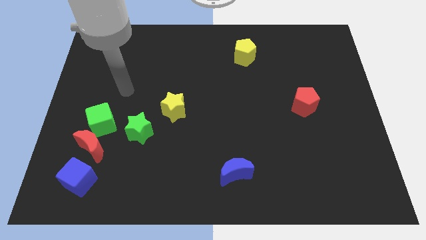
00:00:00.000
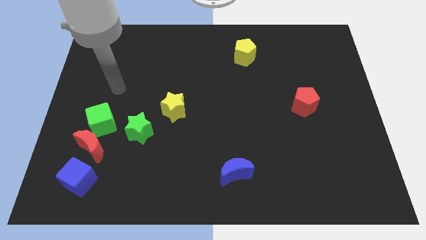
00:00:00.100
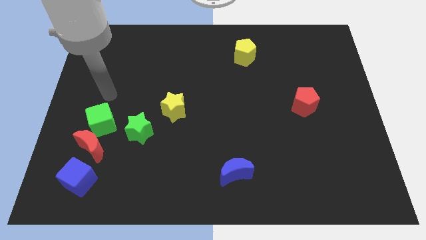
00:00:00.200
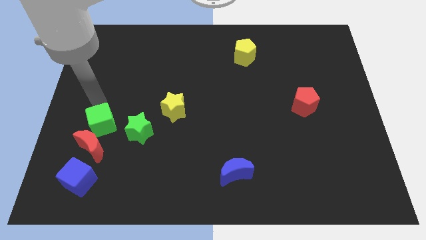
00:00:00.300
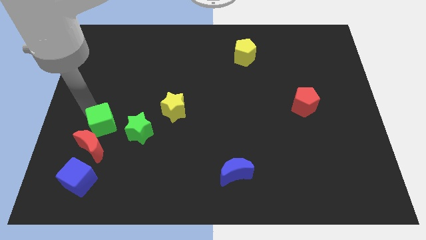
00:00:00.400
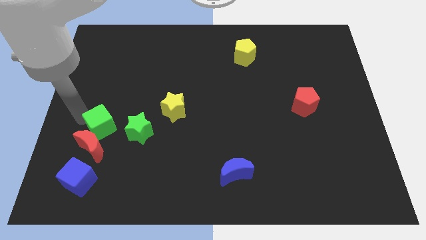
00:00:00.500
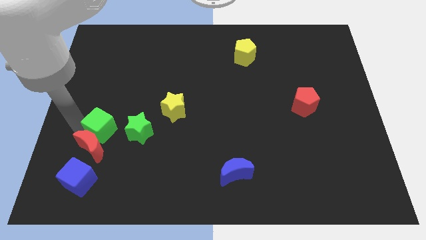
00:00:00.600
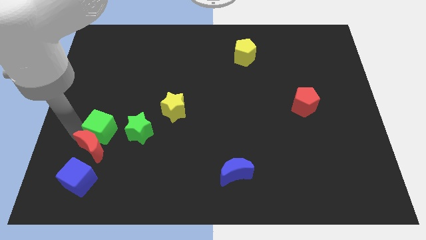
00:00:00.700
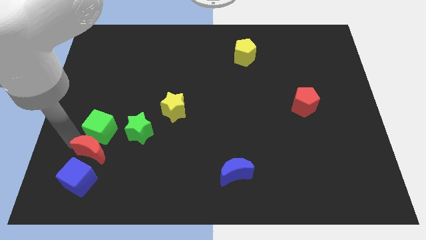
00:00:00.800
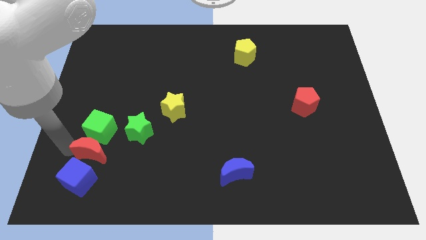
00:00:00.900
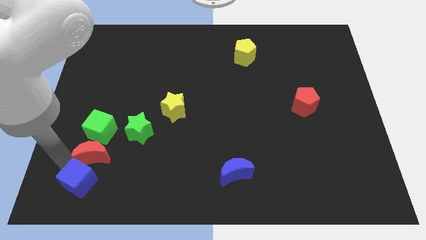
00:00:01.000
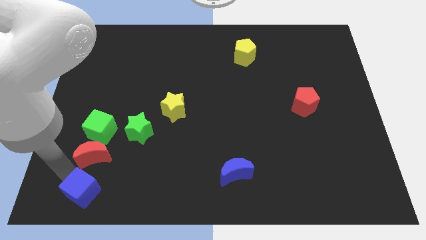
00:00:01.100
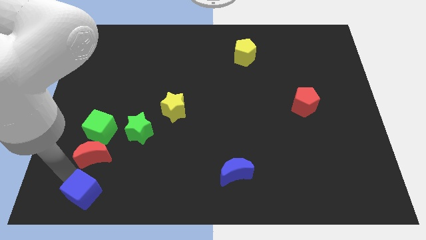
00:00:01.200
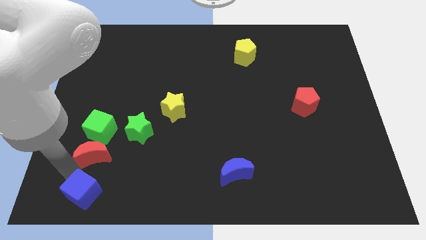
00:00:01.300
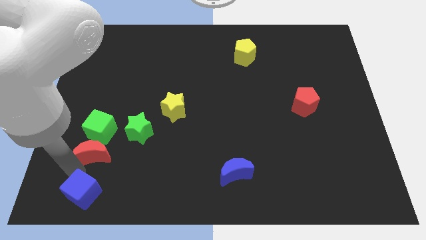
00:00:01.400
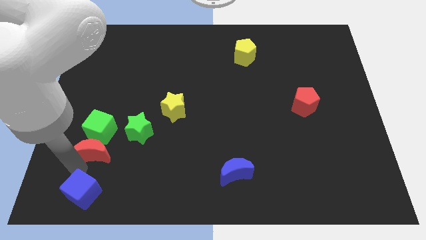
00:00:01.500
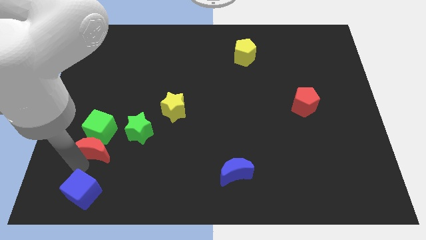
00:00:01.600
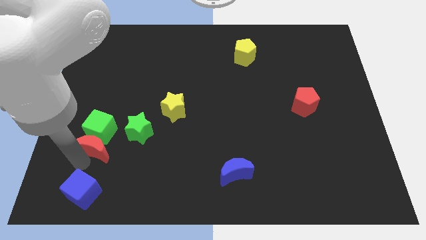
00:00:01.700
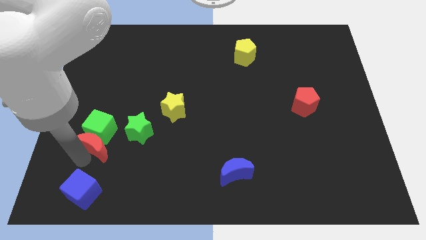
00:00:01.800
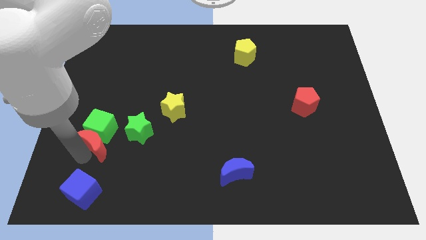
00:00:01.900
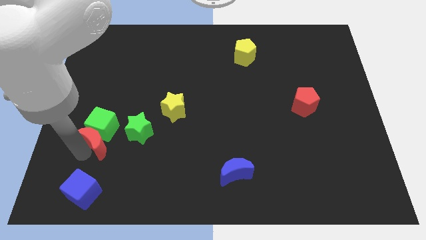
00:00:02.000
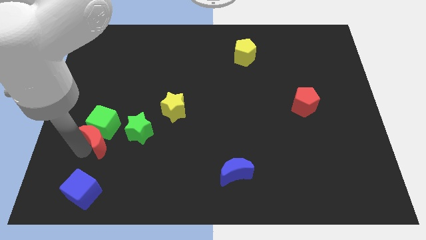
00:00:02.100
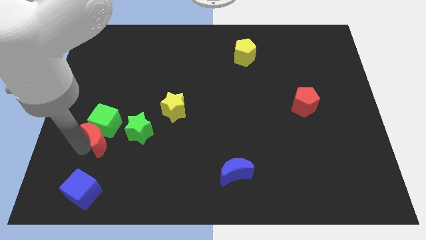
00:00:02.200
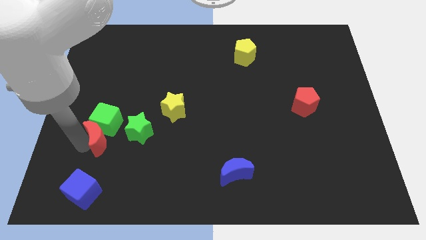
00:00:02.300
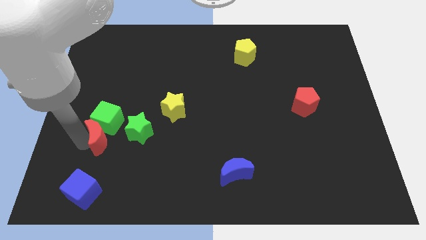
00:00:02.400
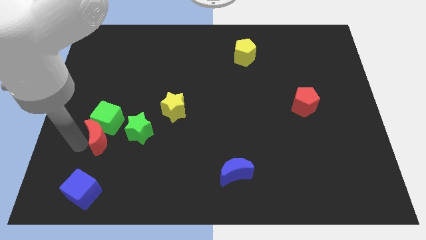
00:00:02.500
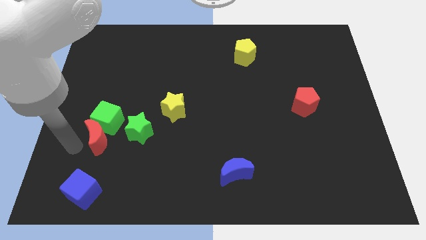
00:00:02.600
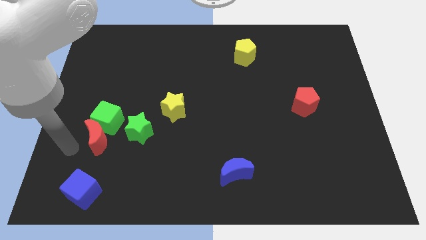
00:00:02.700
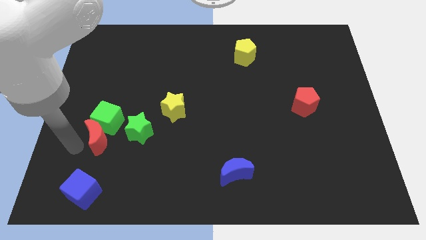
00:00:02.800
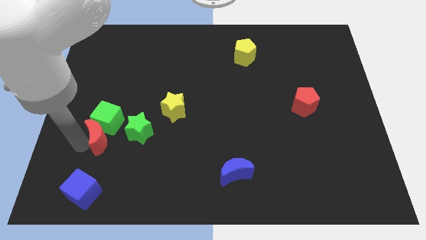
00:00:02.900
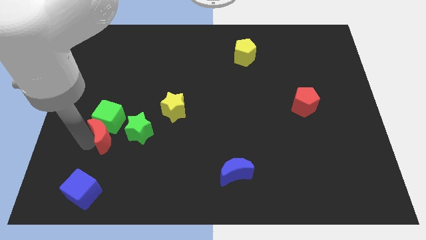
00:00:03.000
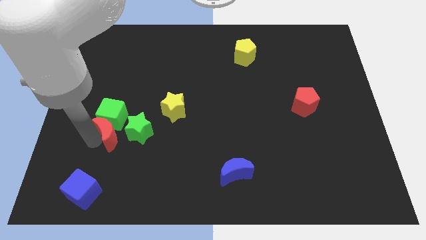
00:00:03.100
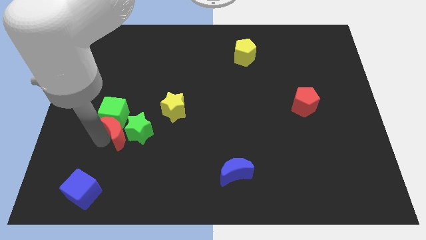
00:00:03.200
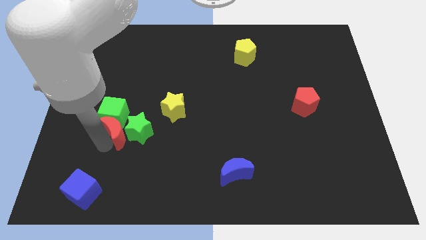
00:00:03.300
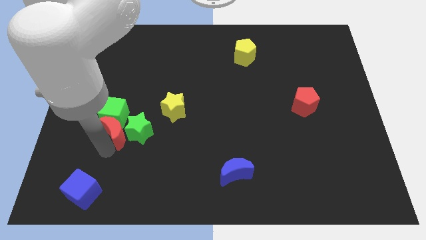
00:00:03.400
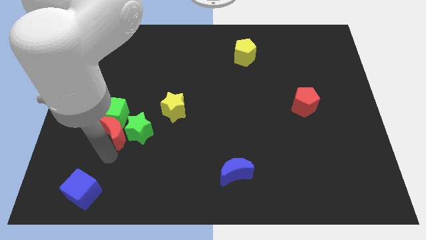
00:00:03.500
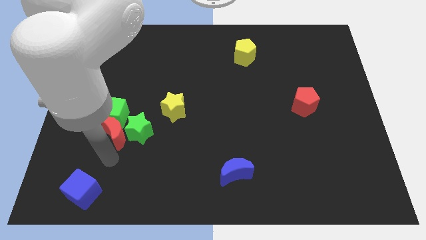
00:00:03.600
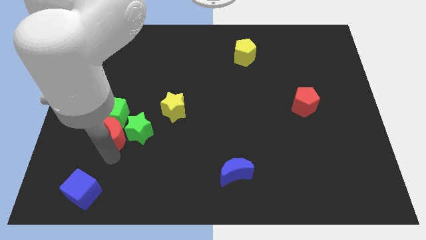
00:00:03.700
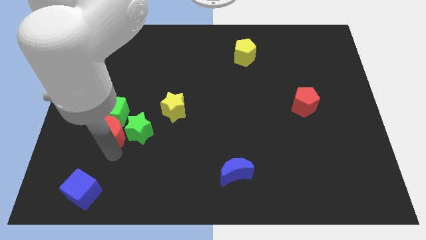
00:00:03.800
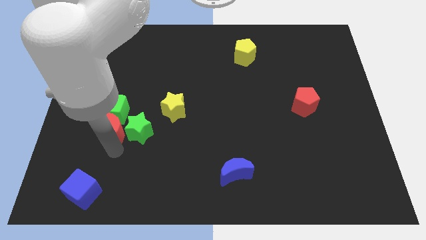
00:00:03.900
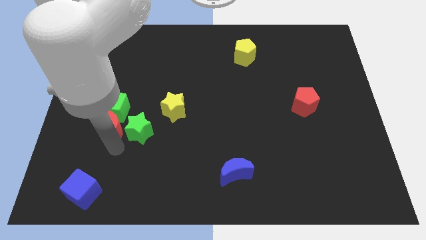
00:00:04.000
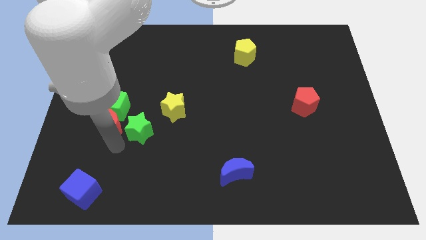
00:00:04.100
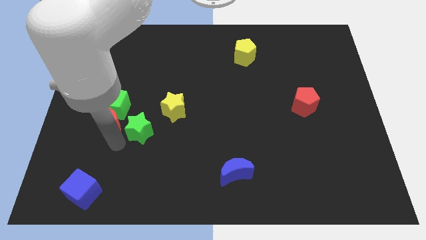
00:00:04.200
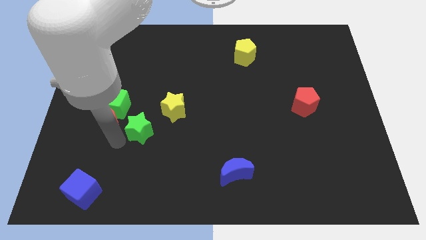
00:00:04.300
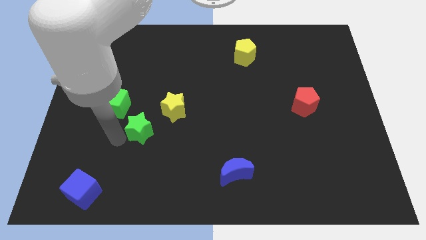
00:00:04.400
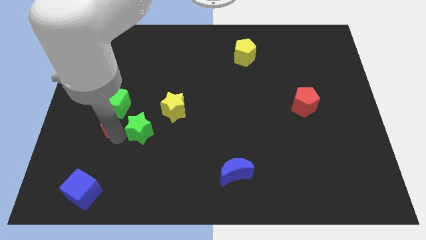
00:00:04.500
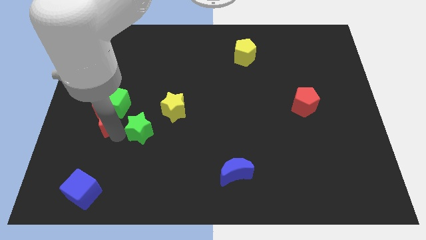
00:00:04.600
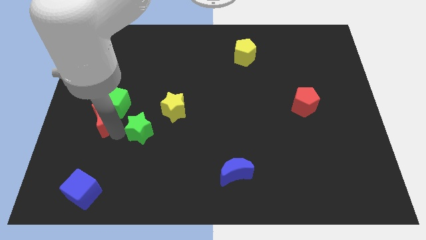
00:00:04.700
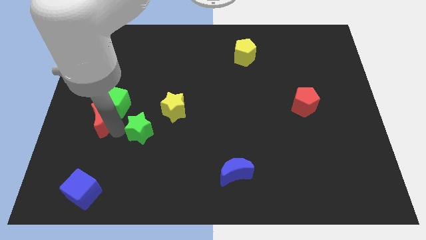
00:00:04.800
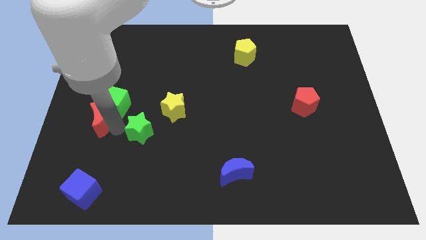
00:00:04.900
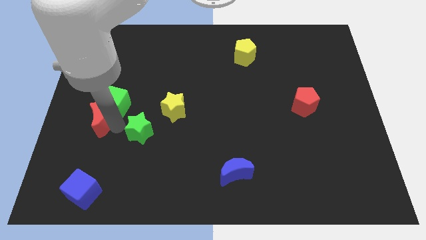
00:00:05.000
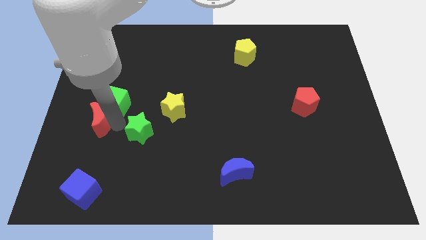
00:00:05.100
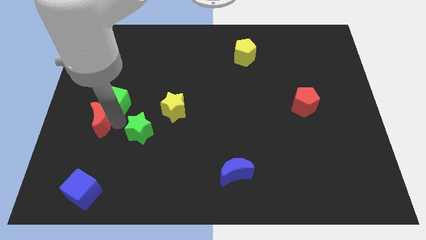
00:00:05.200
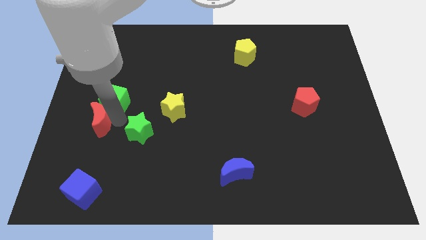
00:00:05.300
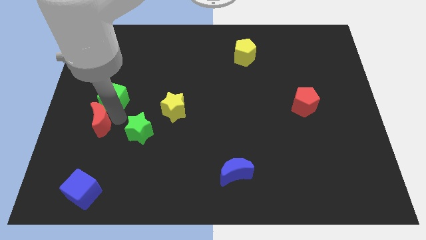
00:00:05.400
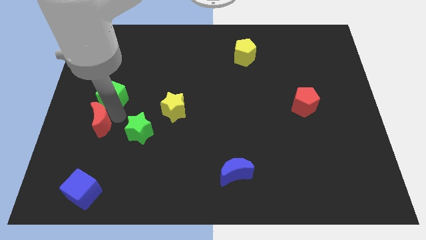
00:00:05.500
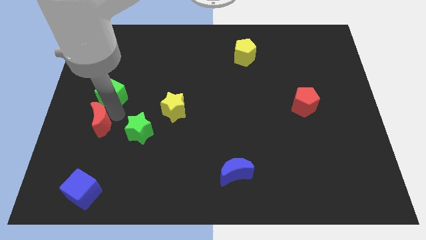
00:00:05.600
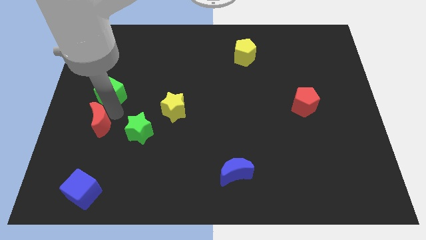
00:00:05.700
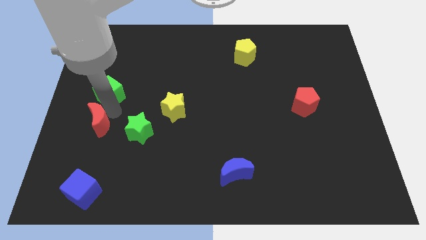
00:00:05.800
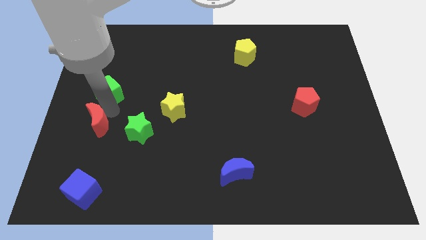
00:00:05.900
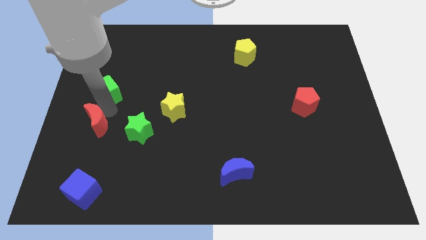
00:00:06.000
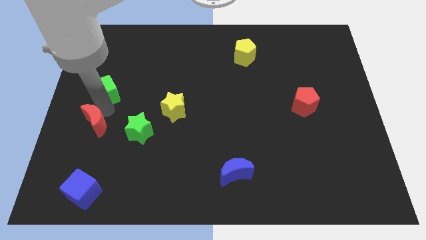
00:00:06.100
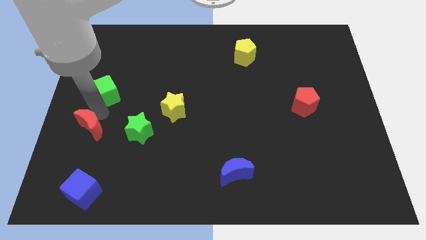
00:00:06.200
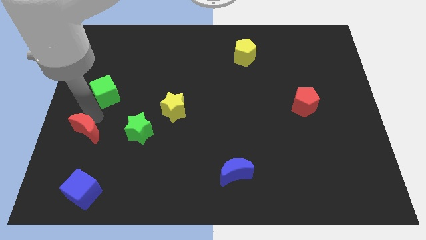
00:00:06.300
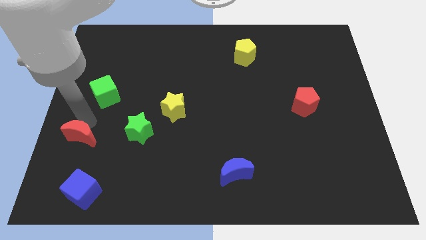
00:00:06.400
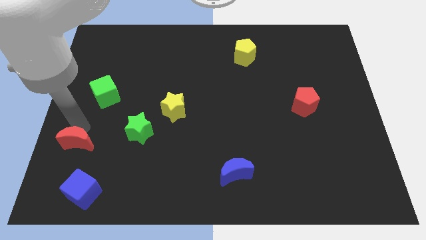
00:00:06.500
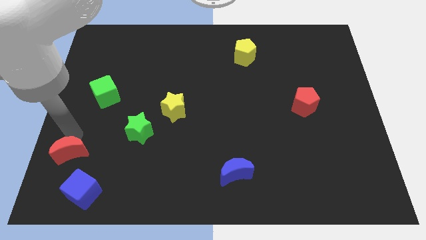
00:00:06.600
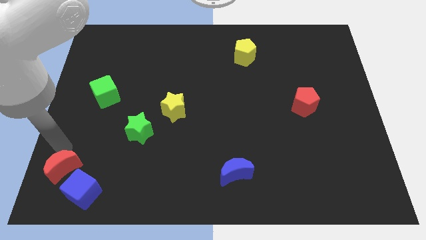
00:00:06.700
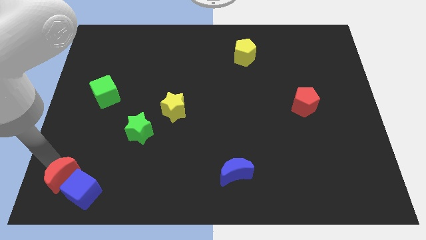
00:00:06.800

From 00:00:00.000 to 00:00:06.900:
move the red moon away from the green cube and blue cube

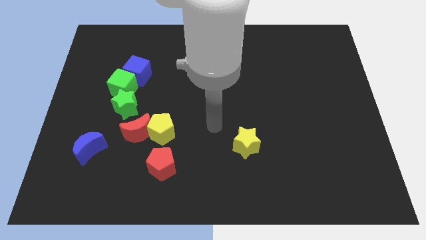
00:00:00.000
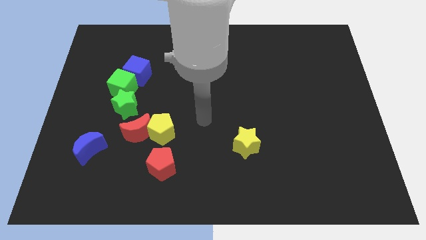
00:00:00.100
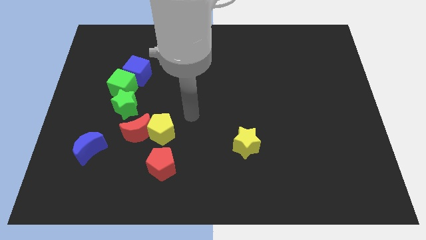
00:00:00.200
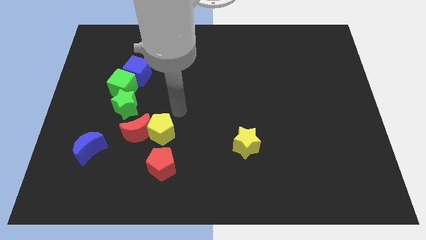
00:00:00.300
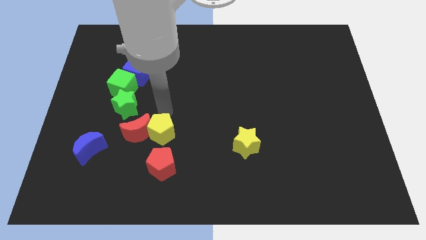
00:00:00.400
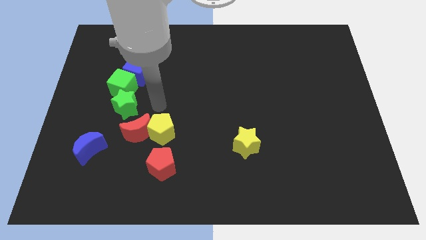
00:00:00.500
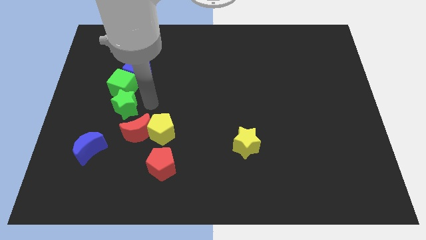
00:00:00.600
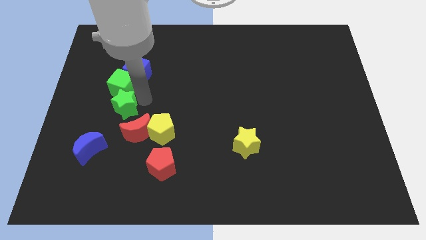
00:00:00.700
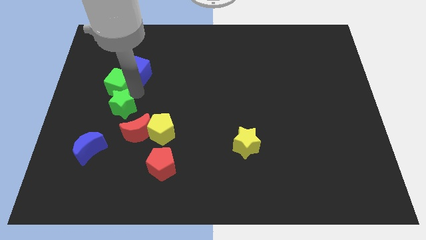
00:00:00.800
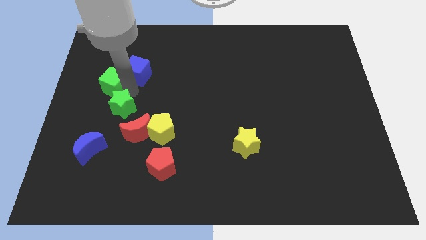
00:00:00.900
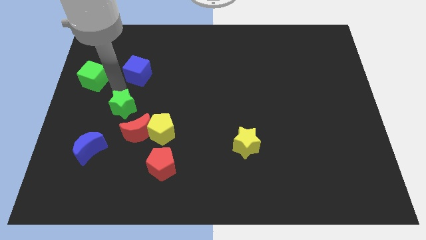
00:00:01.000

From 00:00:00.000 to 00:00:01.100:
pull the blue cube apart from the green cube

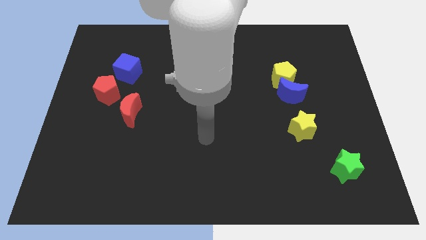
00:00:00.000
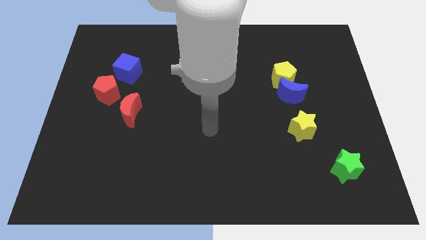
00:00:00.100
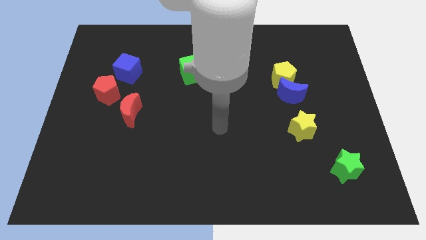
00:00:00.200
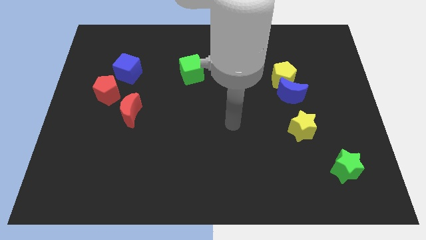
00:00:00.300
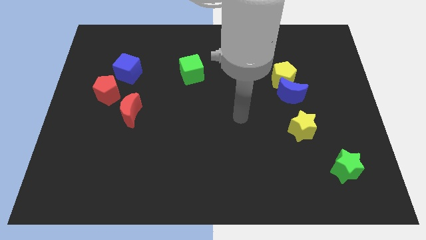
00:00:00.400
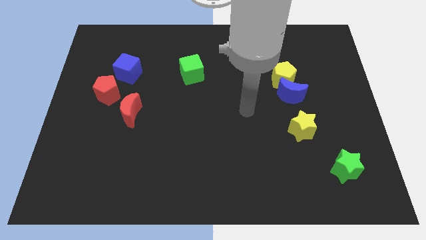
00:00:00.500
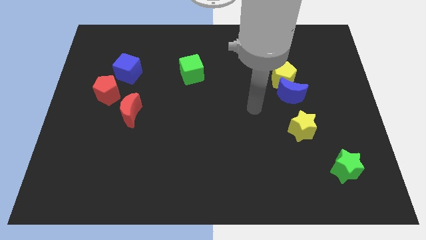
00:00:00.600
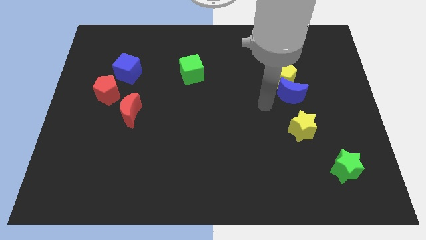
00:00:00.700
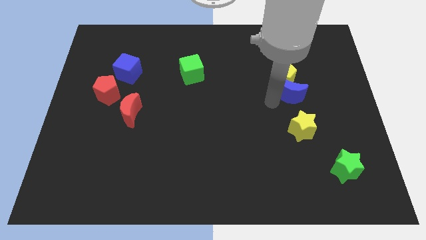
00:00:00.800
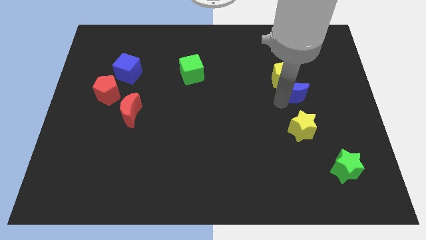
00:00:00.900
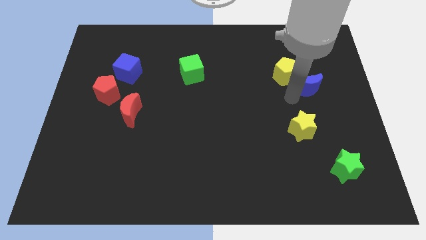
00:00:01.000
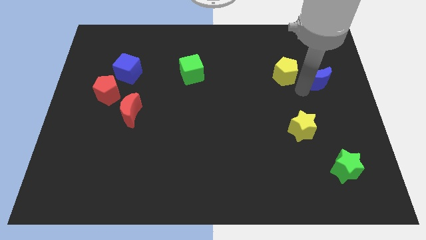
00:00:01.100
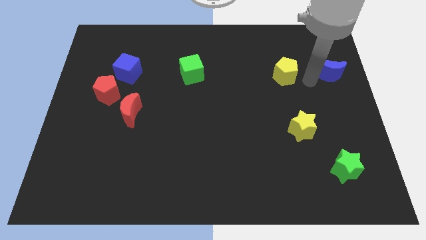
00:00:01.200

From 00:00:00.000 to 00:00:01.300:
separate the yellow pentagon from the blue moon

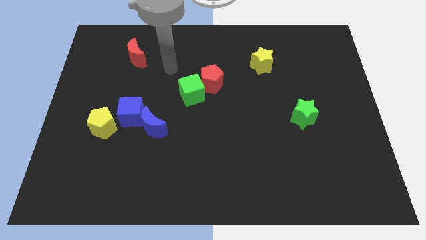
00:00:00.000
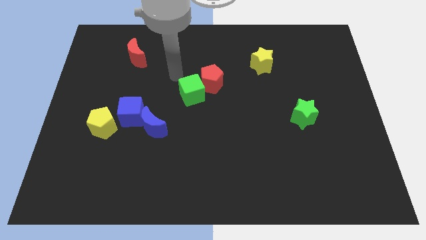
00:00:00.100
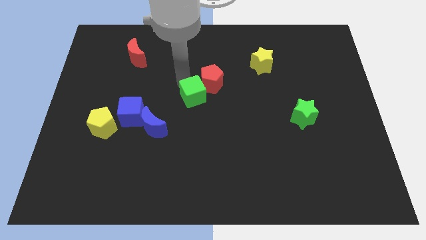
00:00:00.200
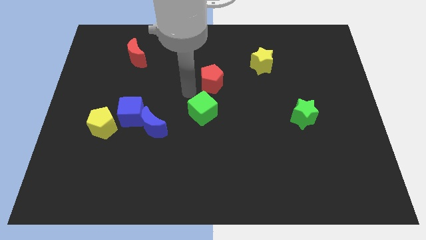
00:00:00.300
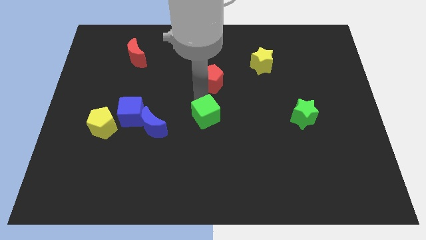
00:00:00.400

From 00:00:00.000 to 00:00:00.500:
move the red pentagon away from the green cube
